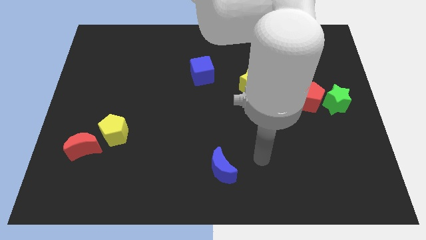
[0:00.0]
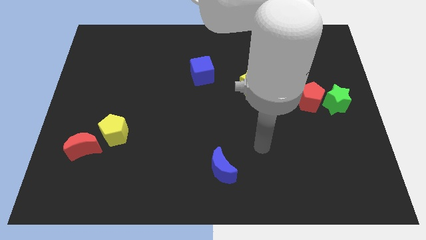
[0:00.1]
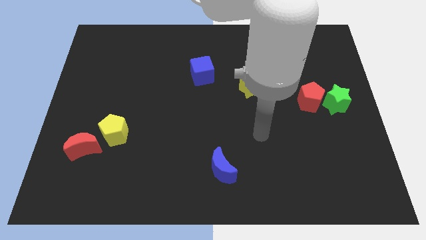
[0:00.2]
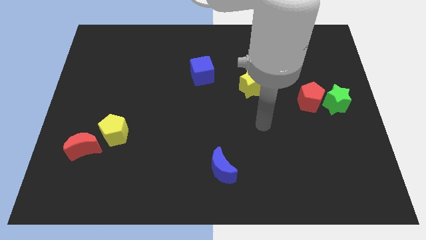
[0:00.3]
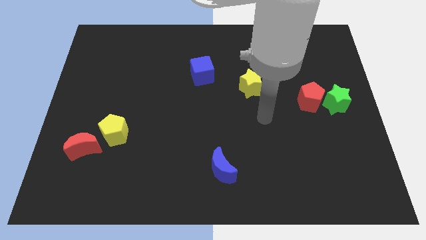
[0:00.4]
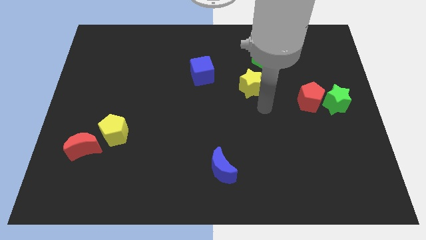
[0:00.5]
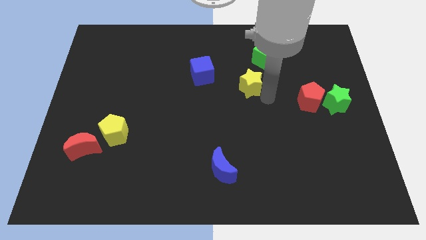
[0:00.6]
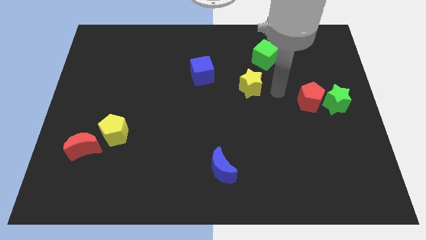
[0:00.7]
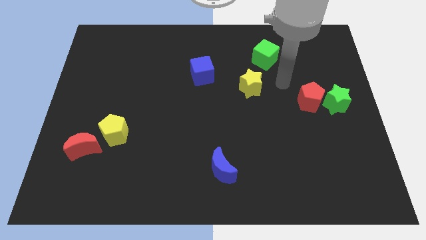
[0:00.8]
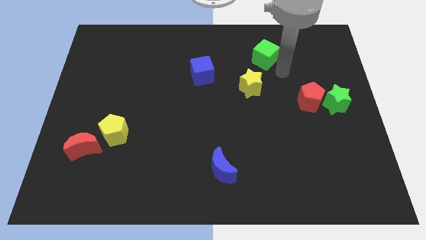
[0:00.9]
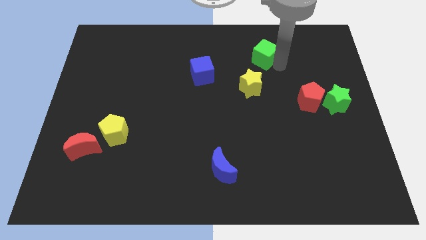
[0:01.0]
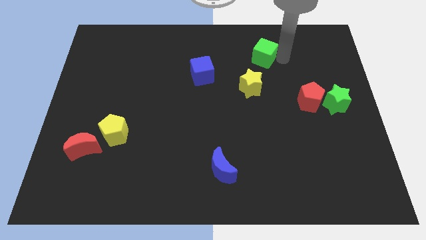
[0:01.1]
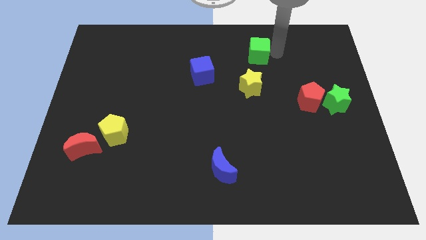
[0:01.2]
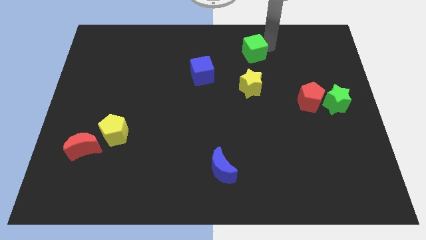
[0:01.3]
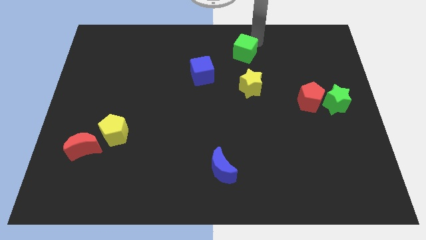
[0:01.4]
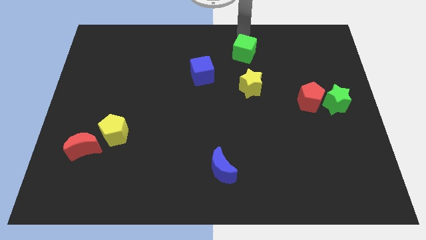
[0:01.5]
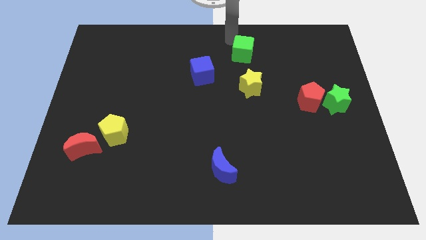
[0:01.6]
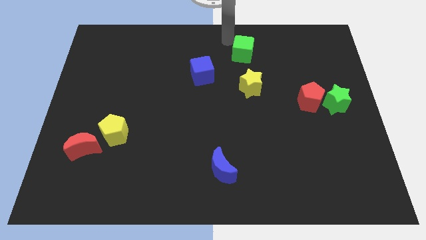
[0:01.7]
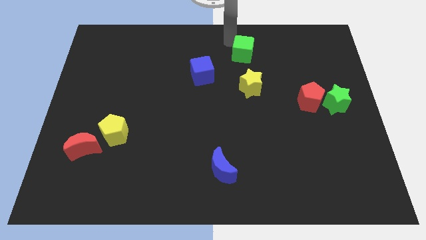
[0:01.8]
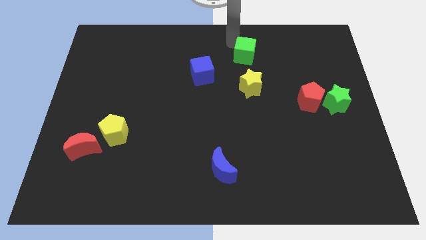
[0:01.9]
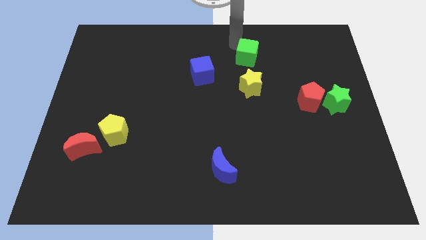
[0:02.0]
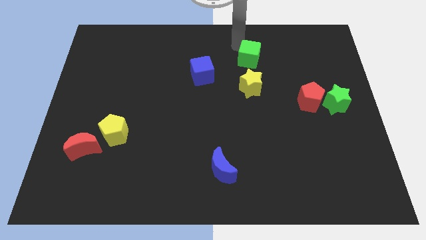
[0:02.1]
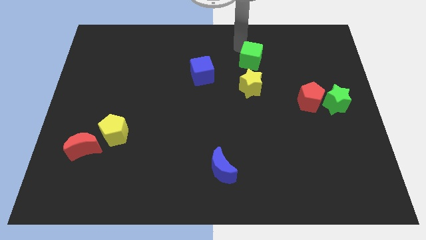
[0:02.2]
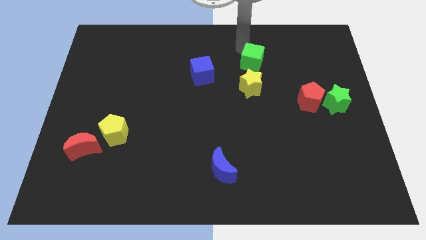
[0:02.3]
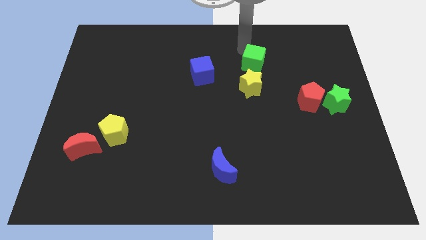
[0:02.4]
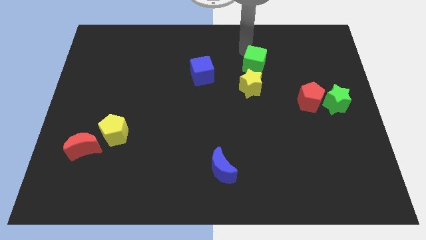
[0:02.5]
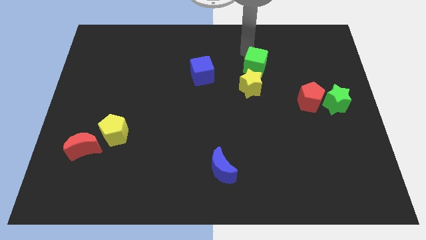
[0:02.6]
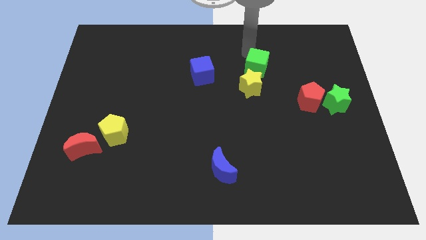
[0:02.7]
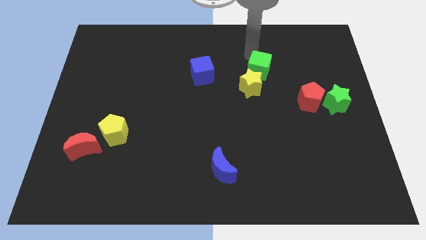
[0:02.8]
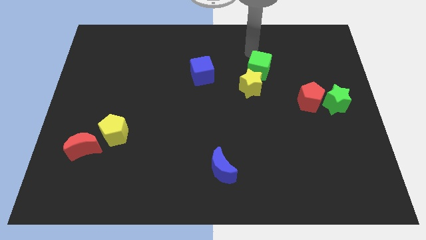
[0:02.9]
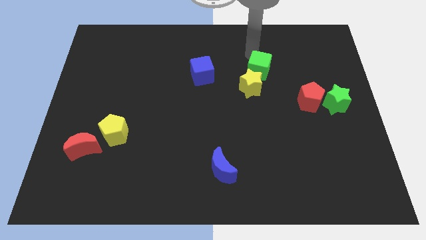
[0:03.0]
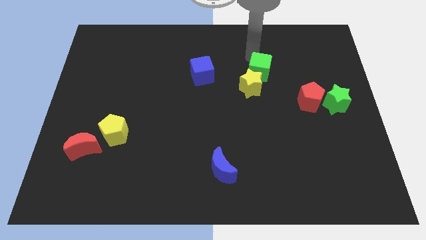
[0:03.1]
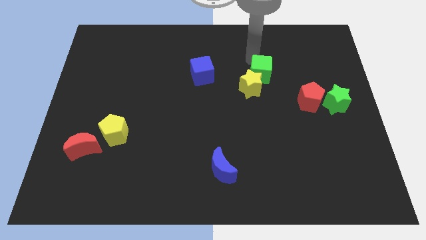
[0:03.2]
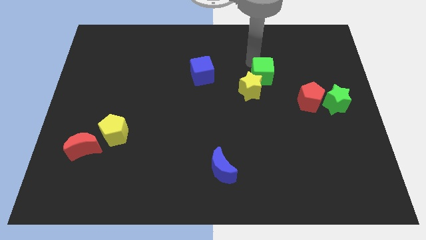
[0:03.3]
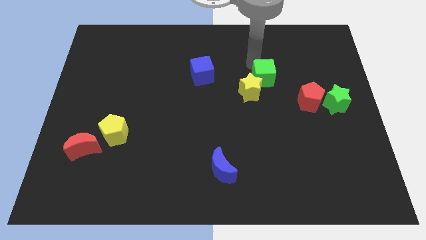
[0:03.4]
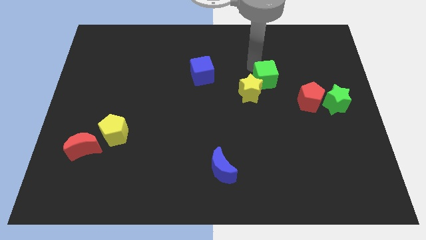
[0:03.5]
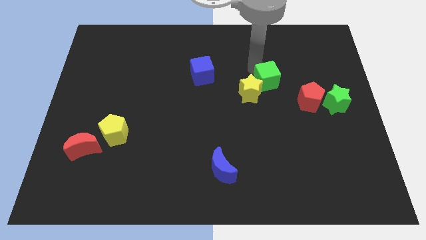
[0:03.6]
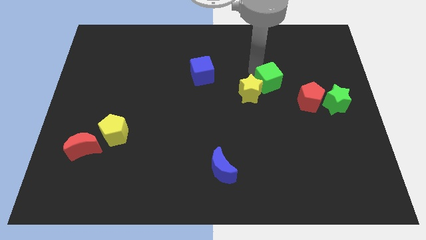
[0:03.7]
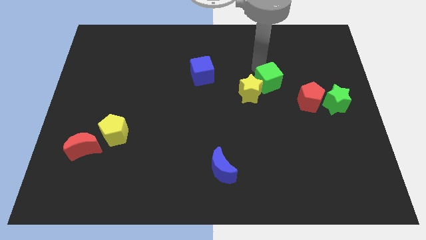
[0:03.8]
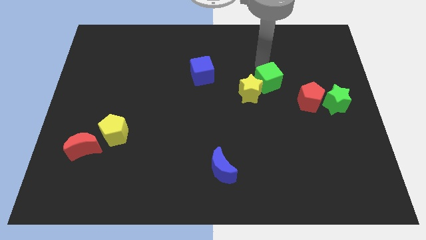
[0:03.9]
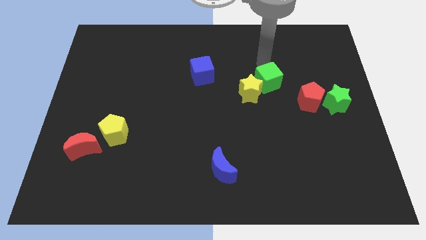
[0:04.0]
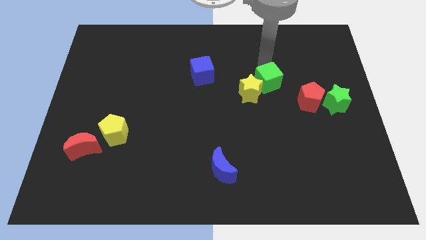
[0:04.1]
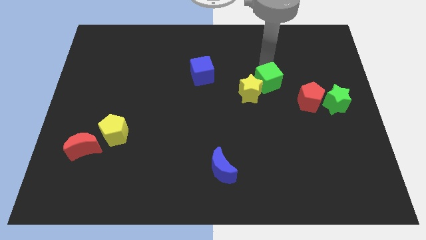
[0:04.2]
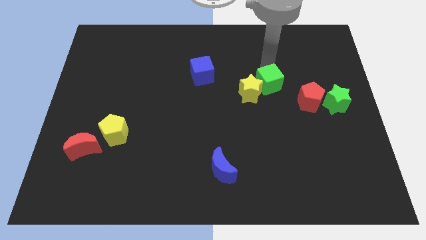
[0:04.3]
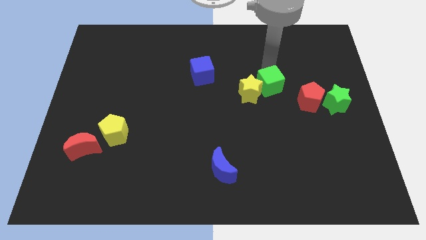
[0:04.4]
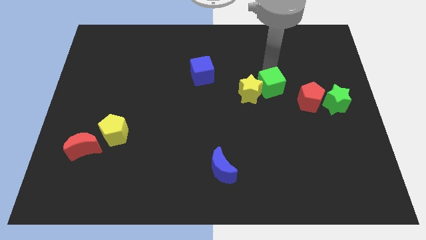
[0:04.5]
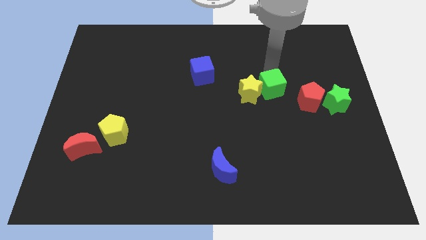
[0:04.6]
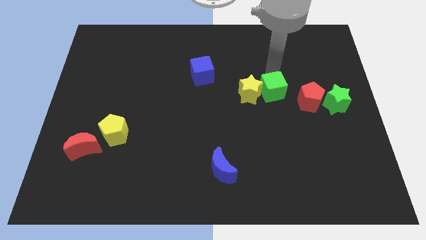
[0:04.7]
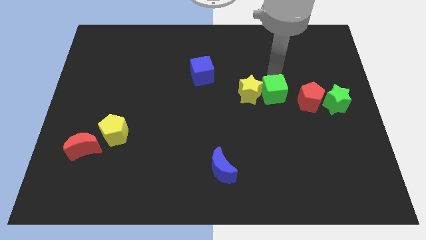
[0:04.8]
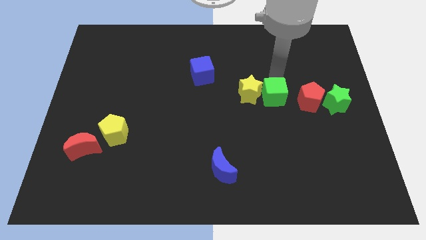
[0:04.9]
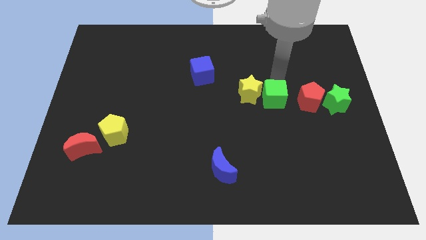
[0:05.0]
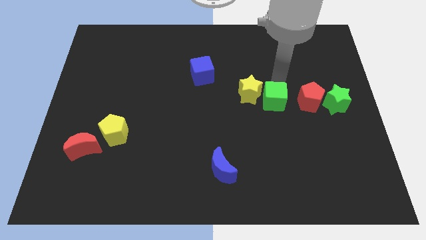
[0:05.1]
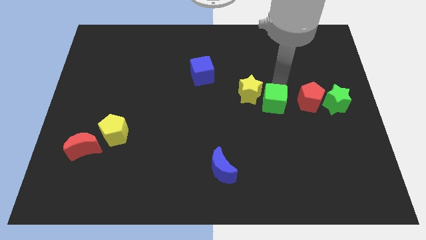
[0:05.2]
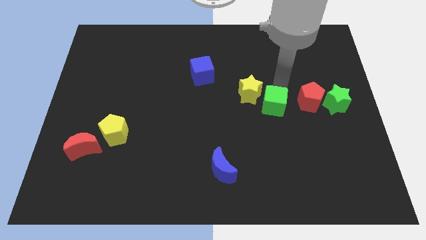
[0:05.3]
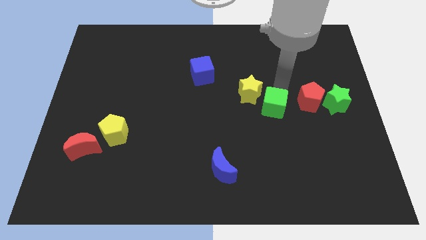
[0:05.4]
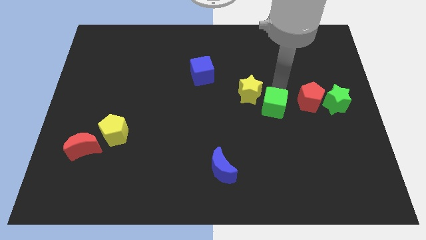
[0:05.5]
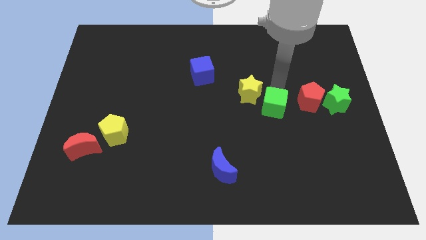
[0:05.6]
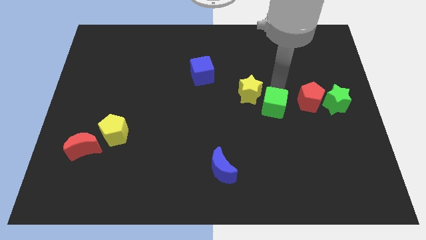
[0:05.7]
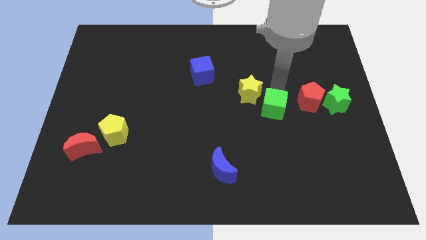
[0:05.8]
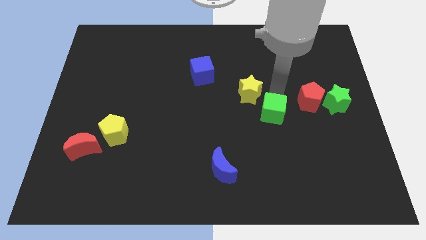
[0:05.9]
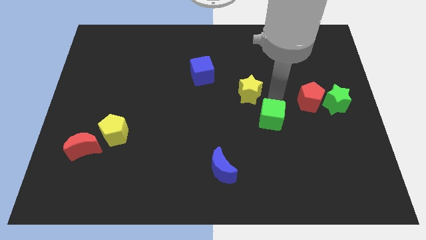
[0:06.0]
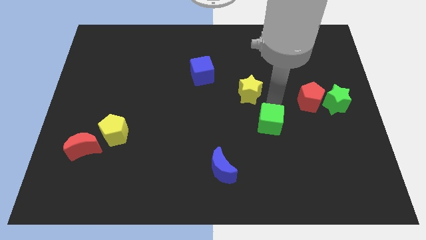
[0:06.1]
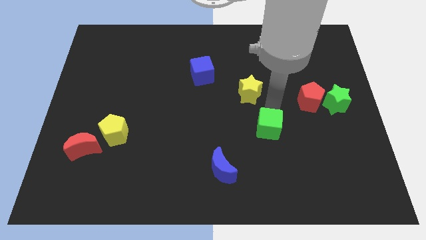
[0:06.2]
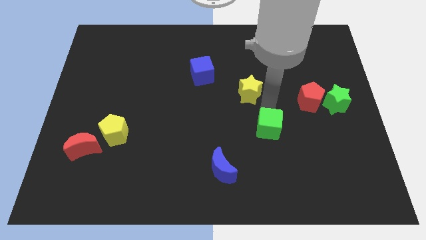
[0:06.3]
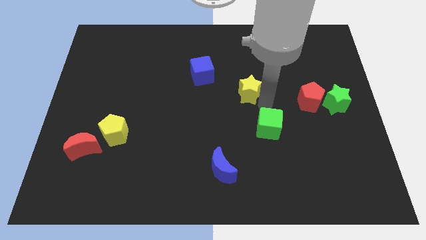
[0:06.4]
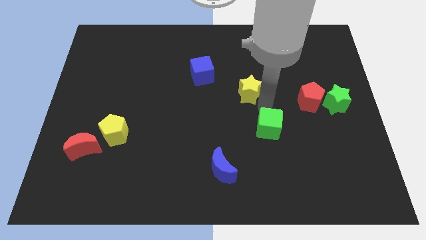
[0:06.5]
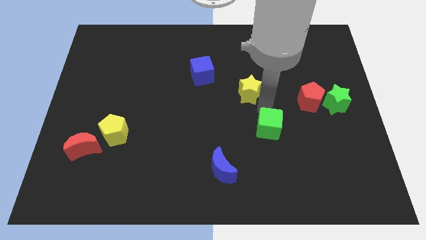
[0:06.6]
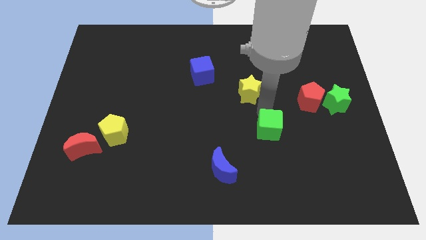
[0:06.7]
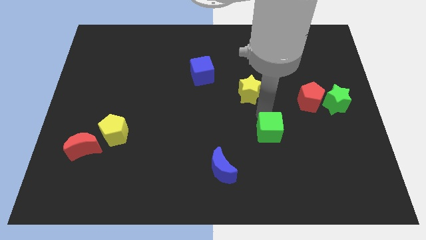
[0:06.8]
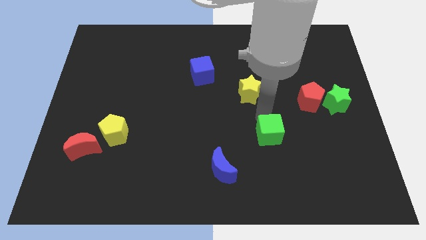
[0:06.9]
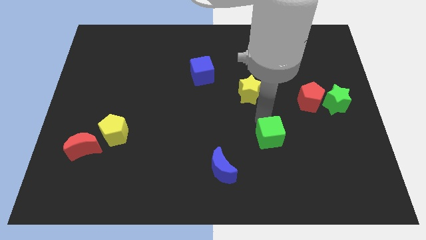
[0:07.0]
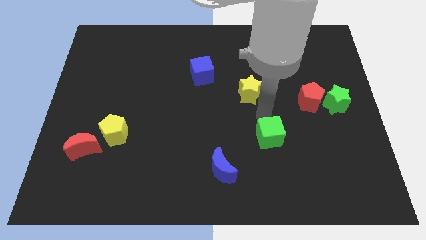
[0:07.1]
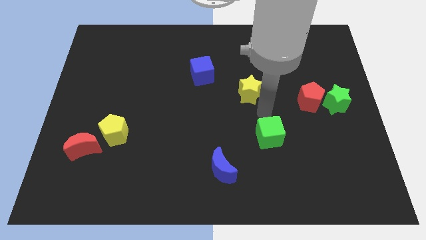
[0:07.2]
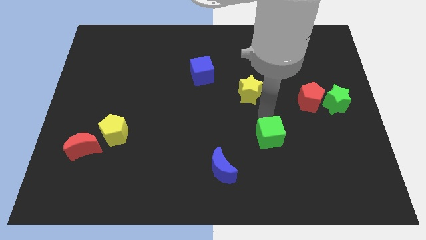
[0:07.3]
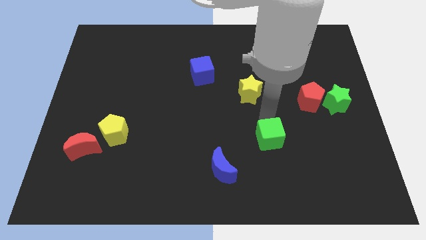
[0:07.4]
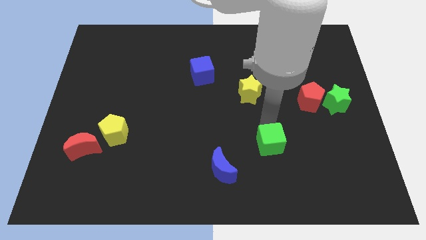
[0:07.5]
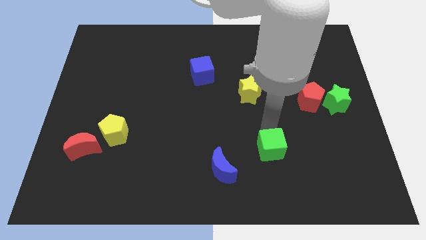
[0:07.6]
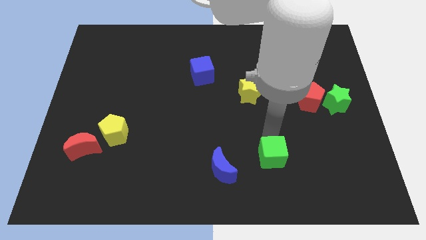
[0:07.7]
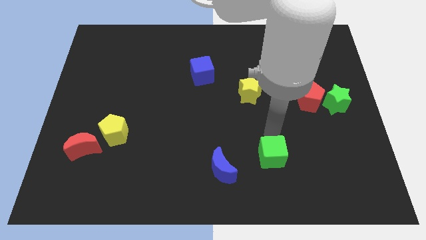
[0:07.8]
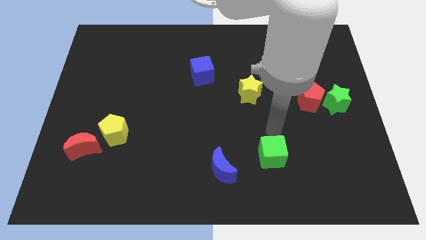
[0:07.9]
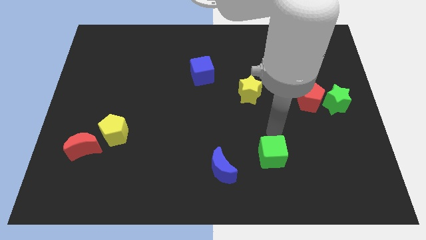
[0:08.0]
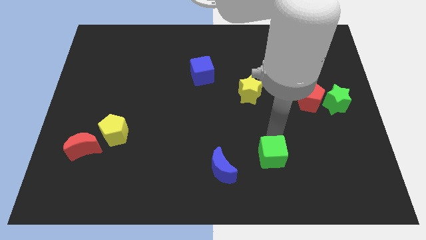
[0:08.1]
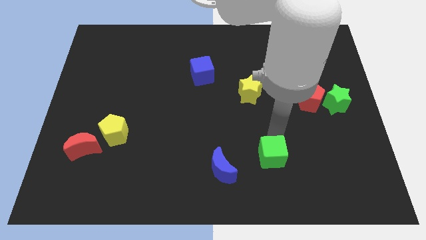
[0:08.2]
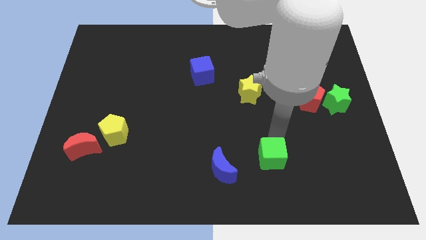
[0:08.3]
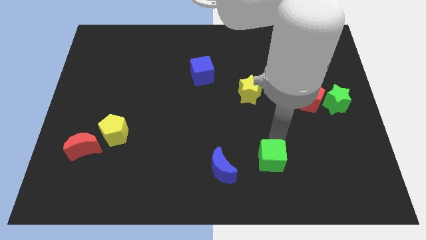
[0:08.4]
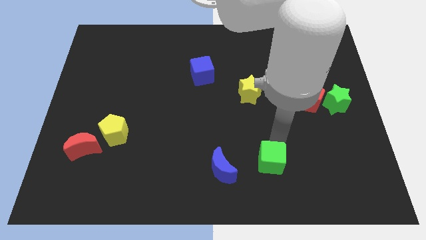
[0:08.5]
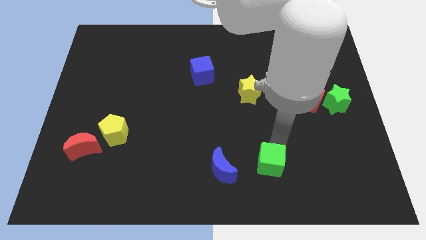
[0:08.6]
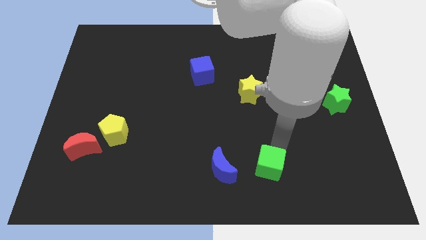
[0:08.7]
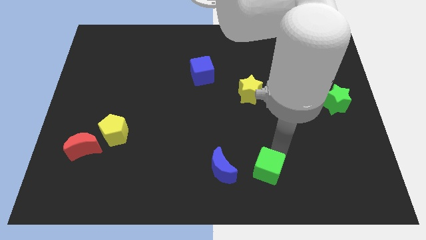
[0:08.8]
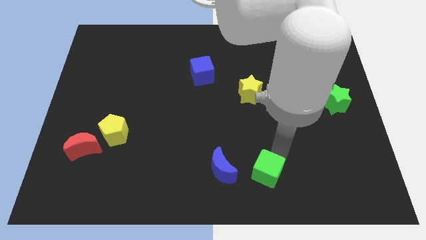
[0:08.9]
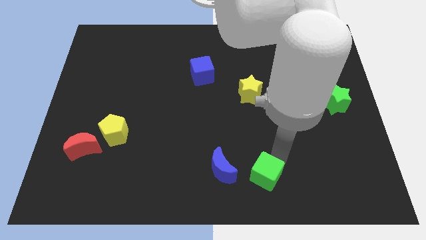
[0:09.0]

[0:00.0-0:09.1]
put the green cube to the bottom
